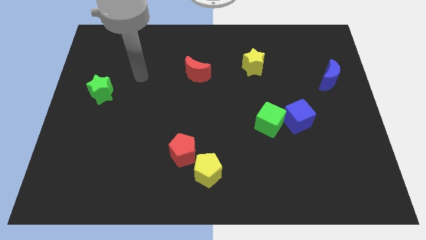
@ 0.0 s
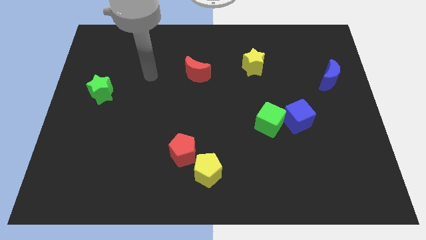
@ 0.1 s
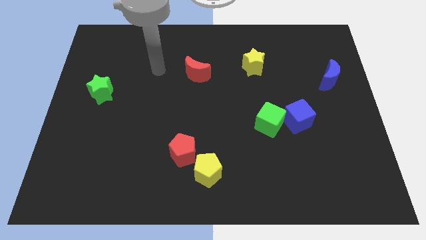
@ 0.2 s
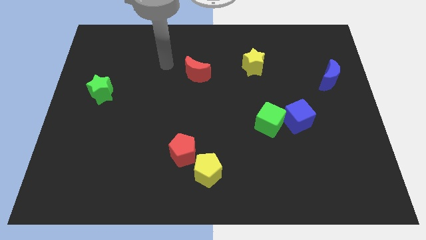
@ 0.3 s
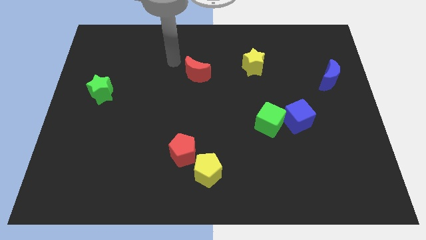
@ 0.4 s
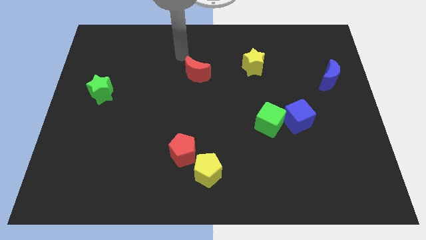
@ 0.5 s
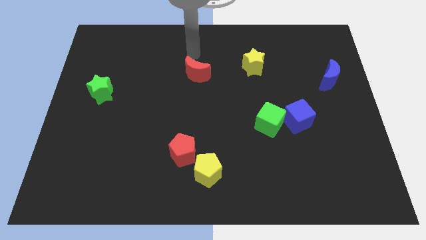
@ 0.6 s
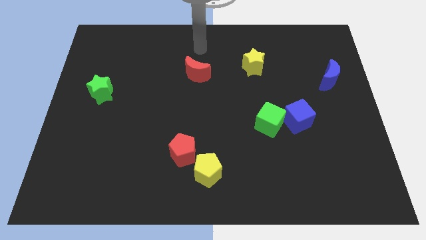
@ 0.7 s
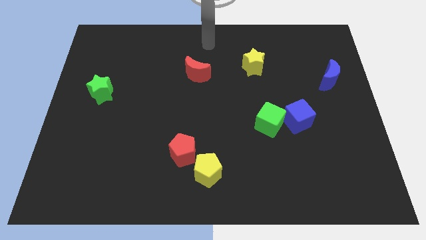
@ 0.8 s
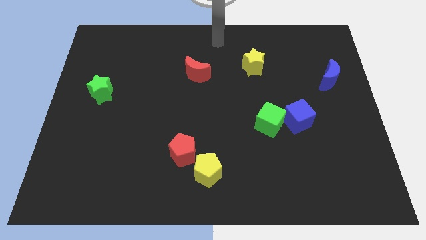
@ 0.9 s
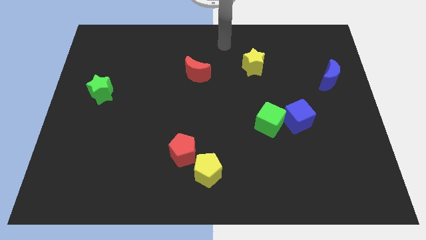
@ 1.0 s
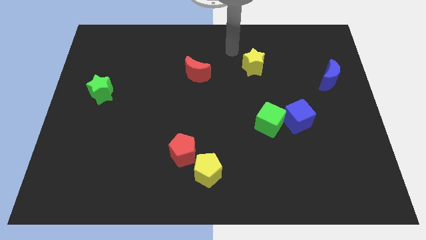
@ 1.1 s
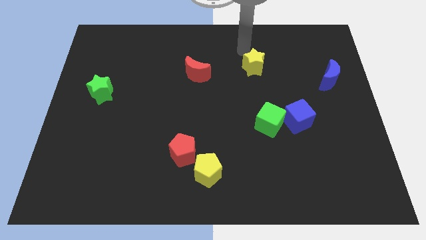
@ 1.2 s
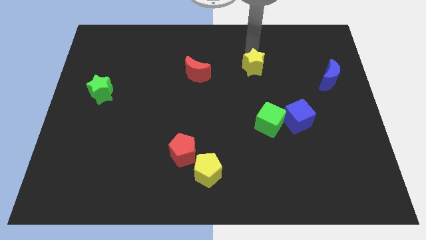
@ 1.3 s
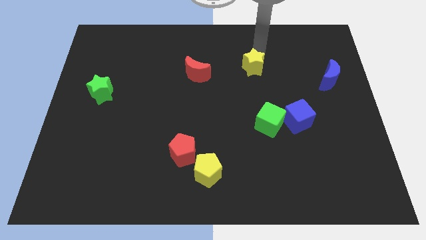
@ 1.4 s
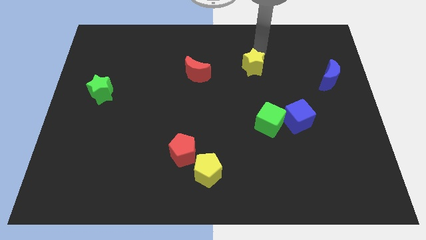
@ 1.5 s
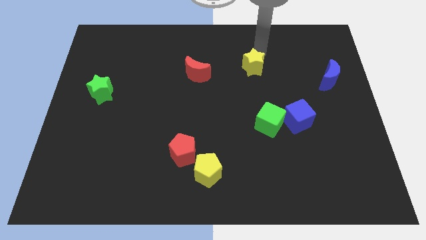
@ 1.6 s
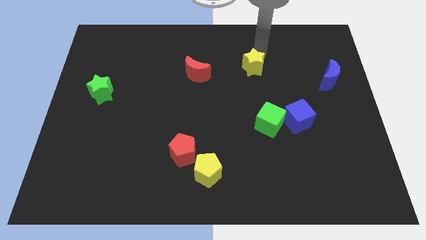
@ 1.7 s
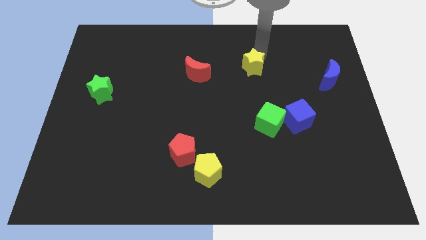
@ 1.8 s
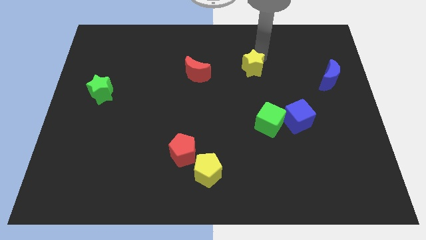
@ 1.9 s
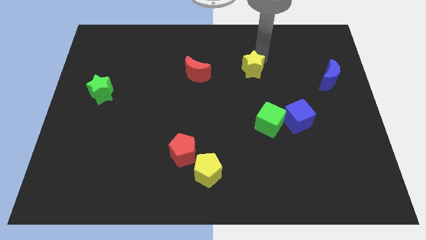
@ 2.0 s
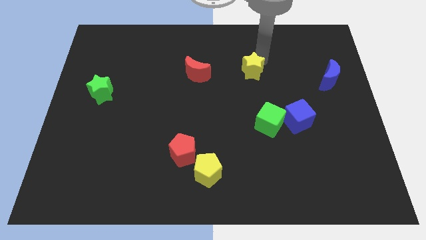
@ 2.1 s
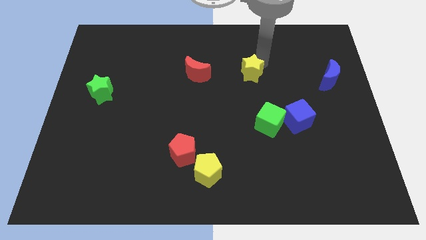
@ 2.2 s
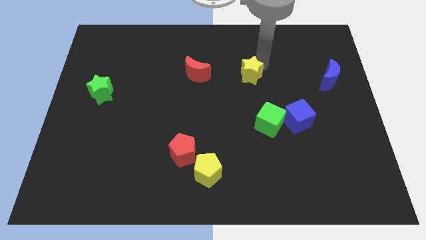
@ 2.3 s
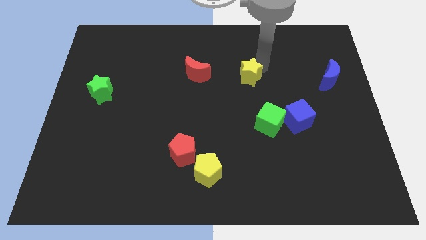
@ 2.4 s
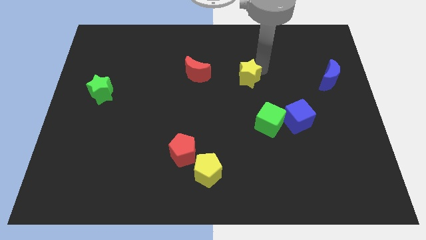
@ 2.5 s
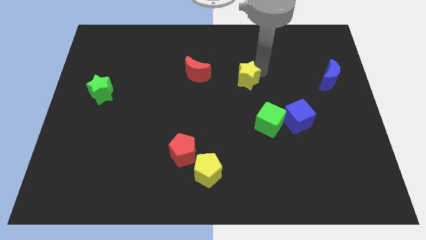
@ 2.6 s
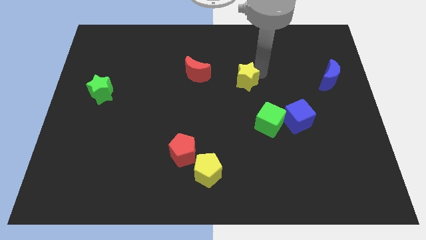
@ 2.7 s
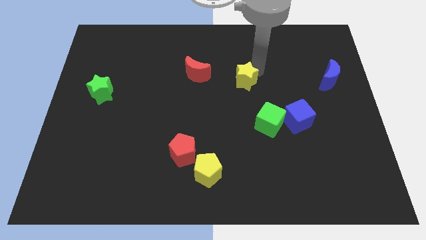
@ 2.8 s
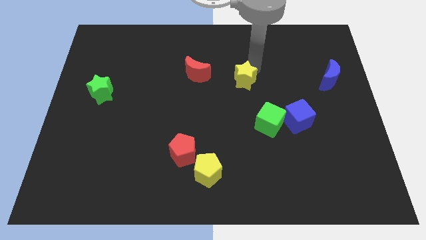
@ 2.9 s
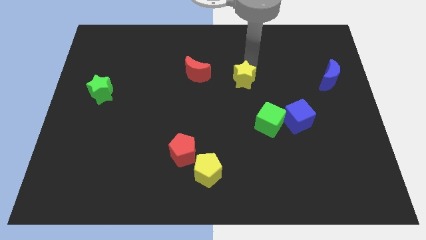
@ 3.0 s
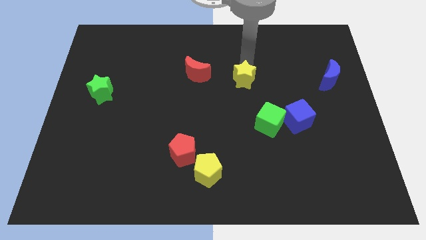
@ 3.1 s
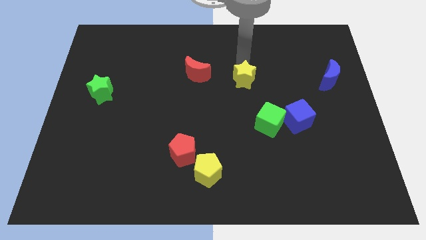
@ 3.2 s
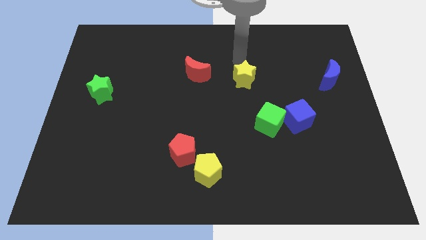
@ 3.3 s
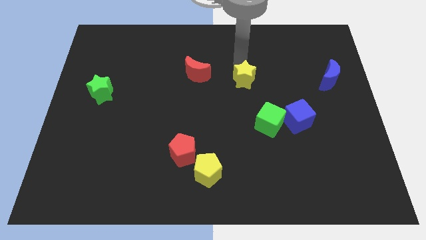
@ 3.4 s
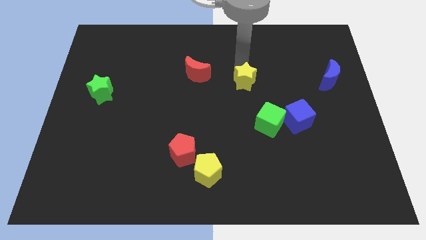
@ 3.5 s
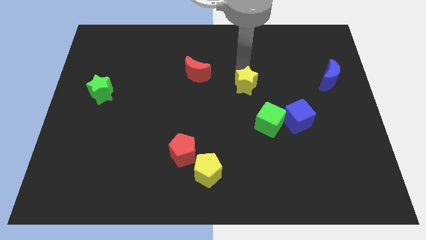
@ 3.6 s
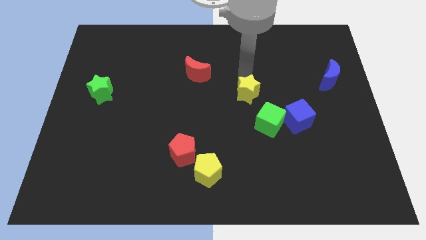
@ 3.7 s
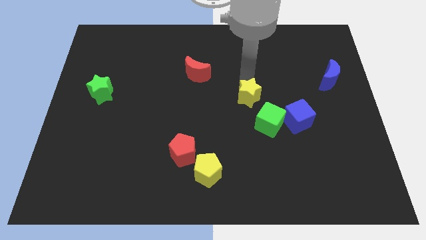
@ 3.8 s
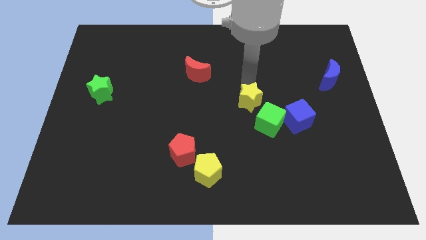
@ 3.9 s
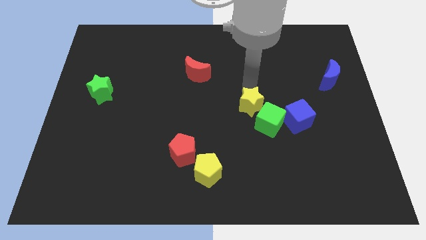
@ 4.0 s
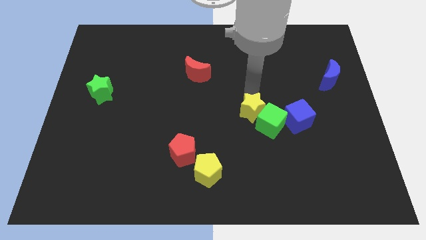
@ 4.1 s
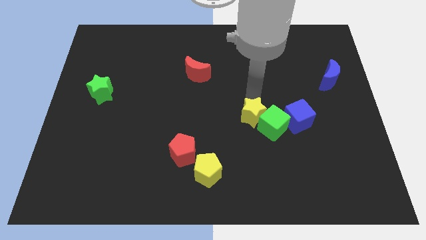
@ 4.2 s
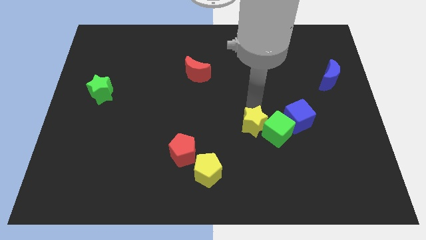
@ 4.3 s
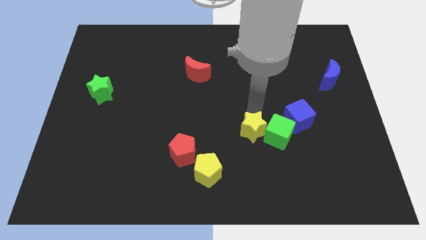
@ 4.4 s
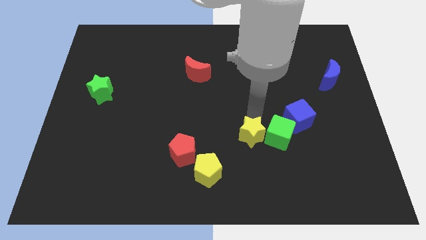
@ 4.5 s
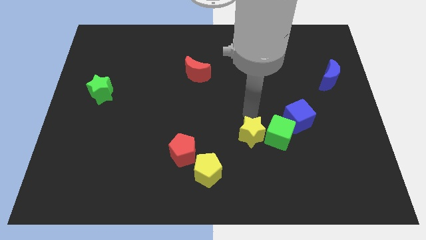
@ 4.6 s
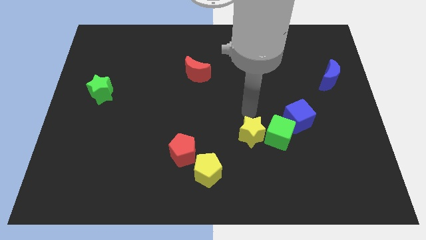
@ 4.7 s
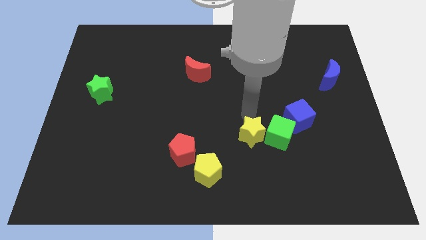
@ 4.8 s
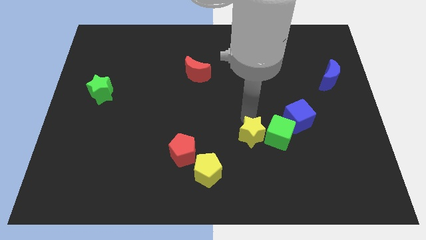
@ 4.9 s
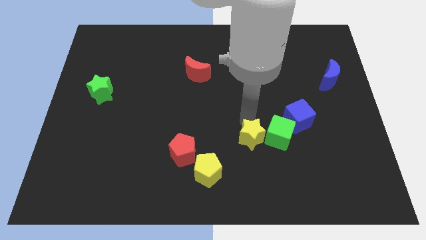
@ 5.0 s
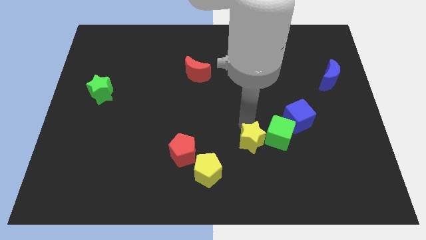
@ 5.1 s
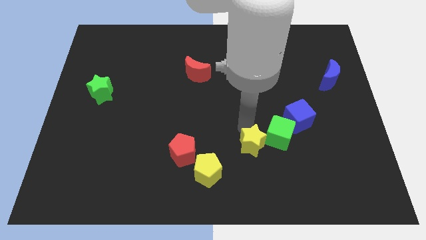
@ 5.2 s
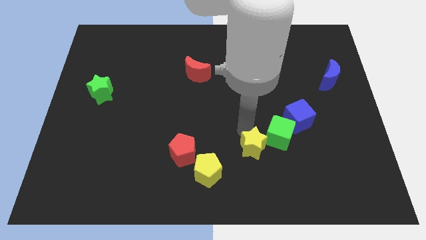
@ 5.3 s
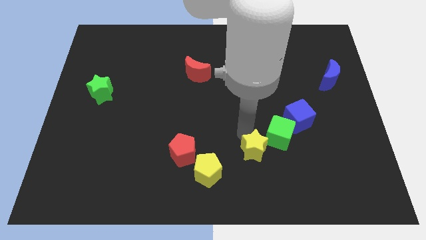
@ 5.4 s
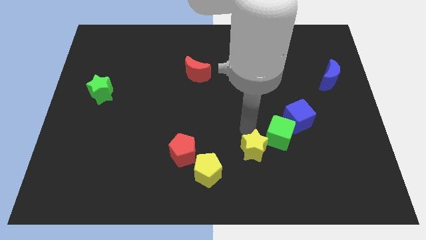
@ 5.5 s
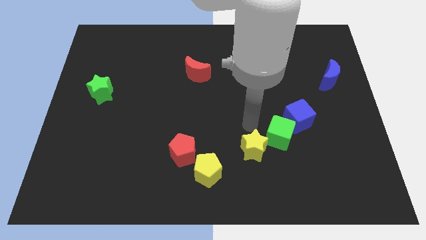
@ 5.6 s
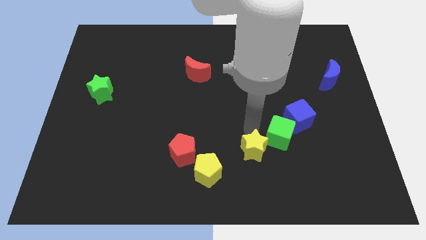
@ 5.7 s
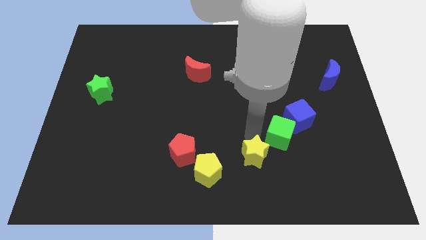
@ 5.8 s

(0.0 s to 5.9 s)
slide the yellow star just right of the yellow pentagon
